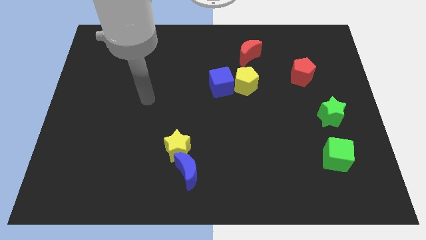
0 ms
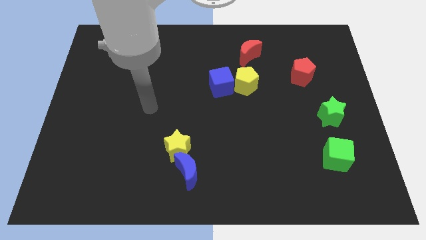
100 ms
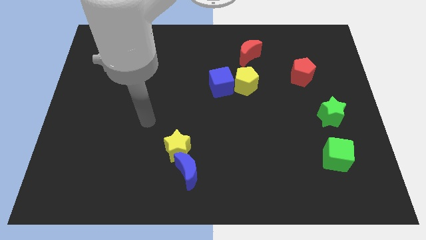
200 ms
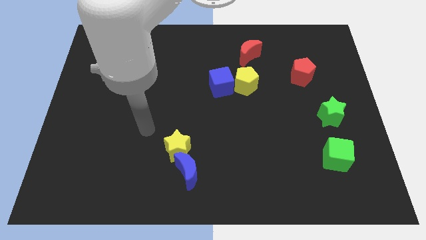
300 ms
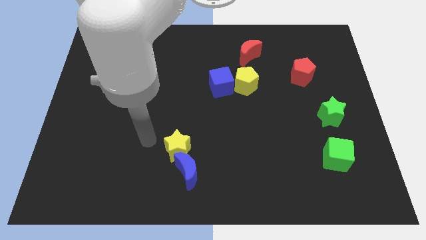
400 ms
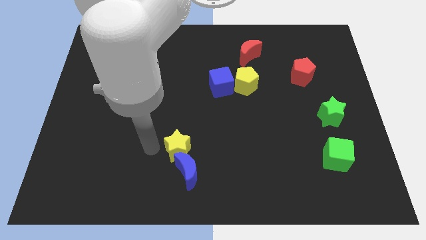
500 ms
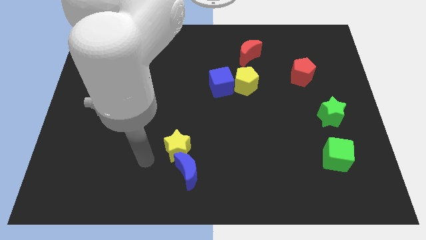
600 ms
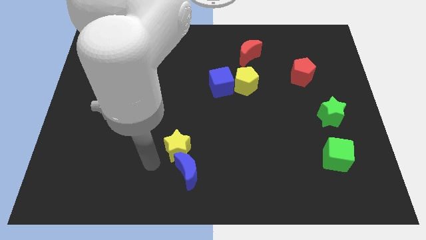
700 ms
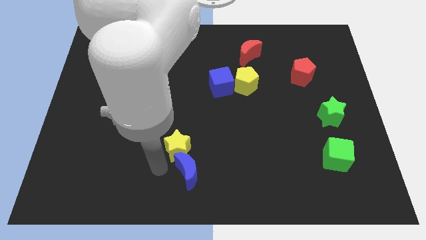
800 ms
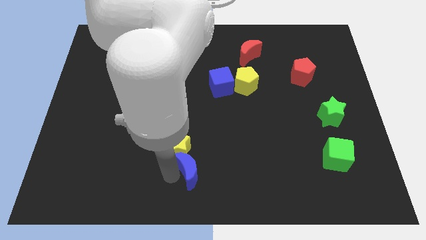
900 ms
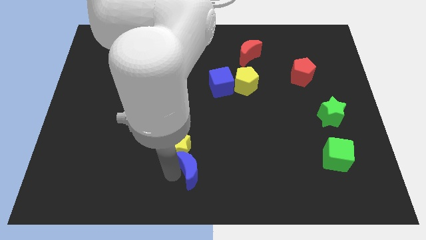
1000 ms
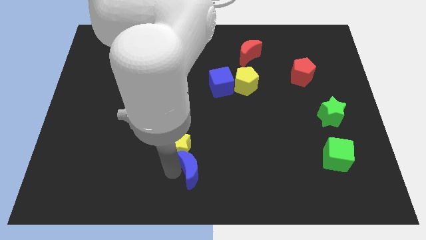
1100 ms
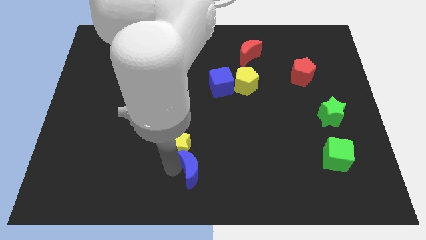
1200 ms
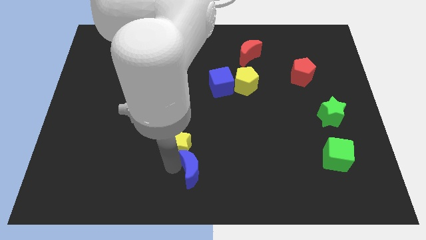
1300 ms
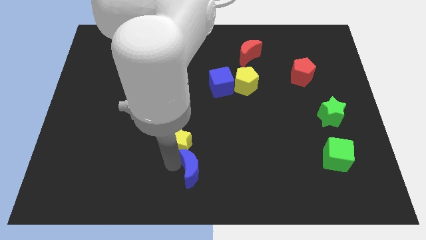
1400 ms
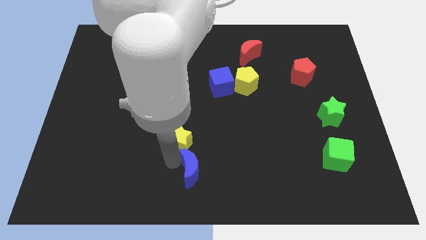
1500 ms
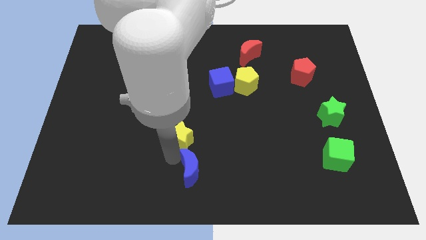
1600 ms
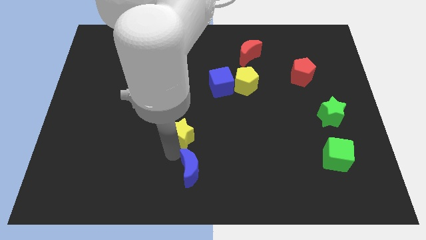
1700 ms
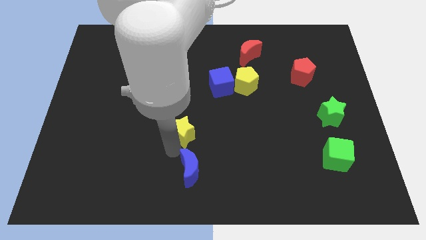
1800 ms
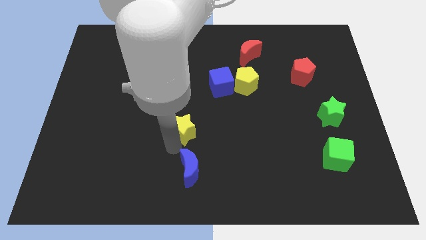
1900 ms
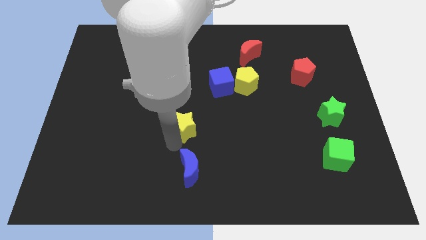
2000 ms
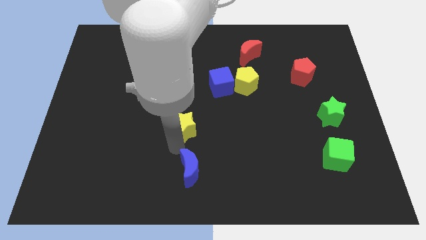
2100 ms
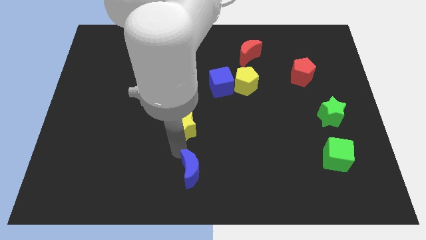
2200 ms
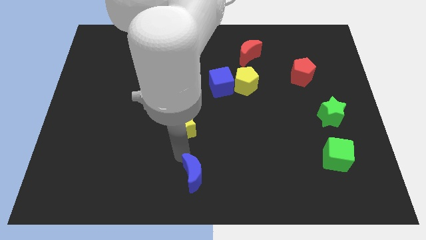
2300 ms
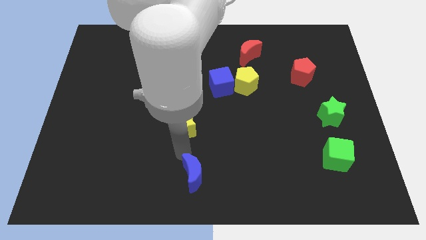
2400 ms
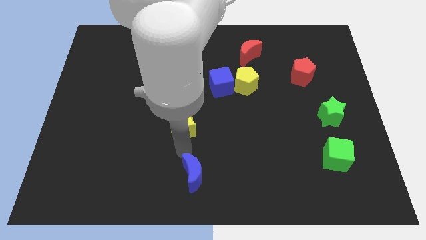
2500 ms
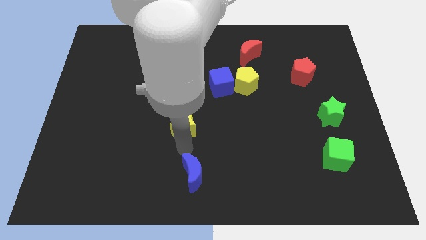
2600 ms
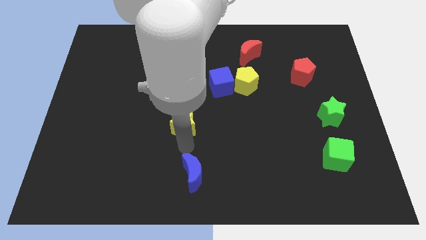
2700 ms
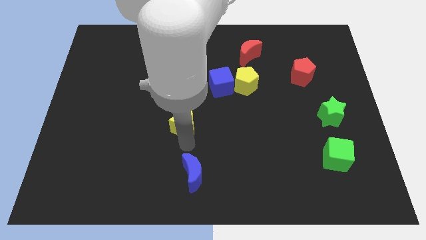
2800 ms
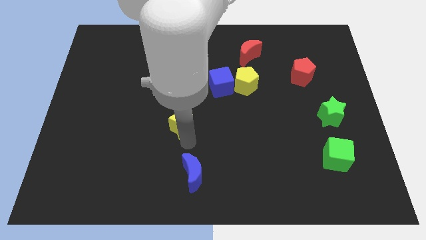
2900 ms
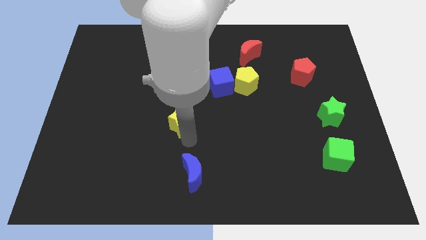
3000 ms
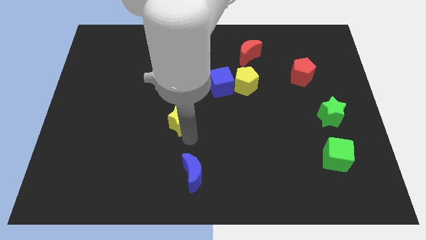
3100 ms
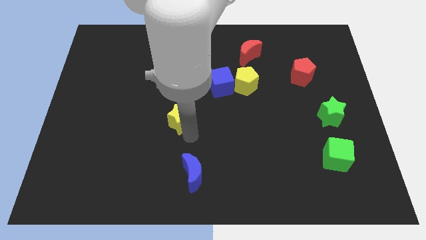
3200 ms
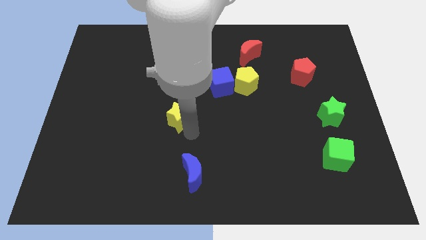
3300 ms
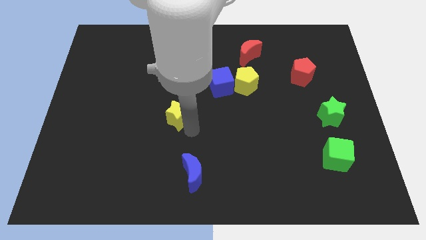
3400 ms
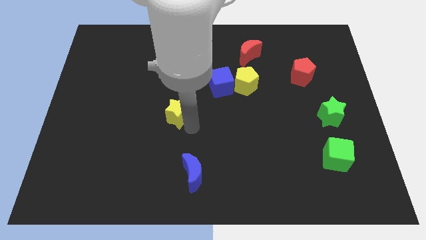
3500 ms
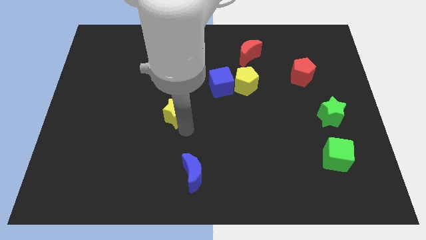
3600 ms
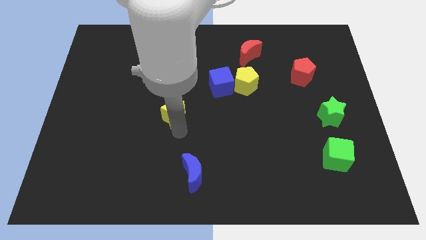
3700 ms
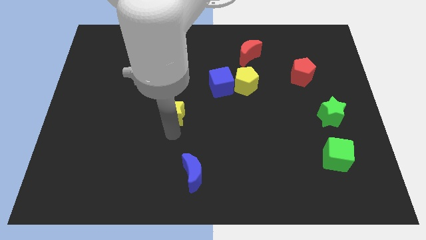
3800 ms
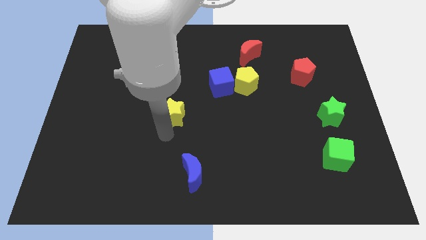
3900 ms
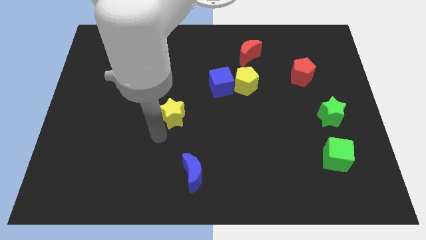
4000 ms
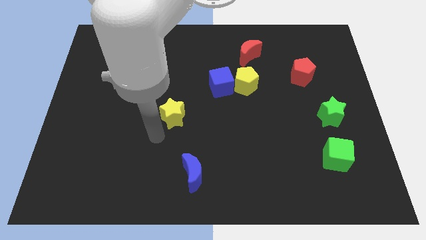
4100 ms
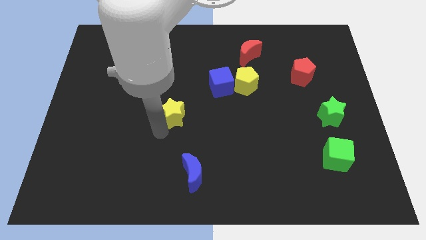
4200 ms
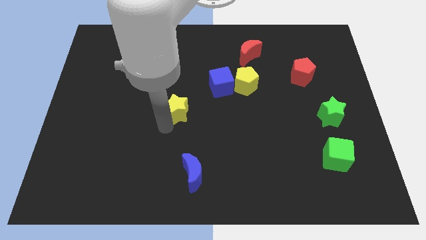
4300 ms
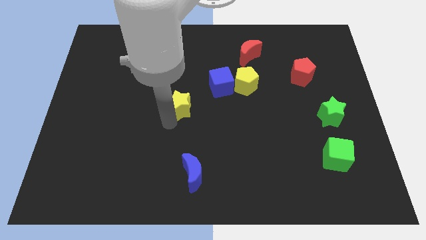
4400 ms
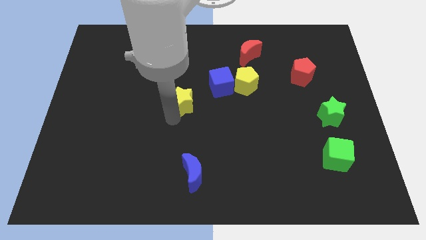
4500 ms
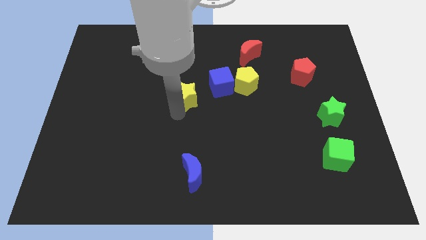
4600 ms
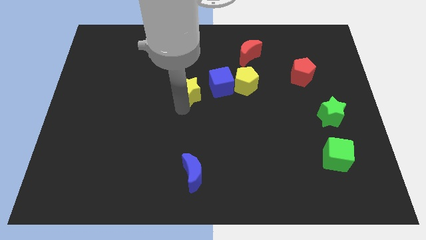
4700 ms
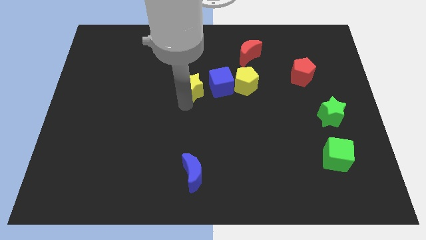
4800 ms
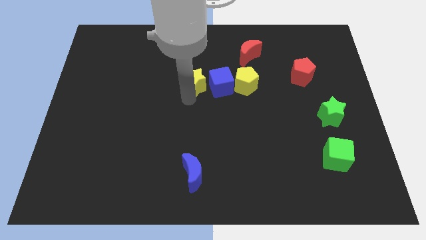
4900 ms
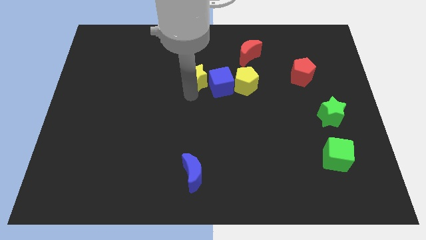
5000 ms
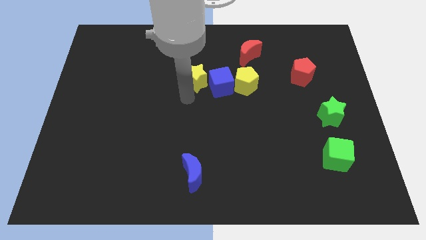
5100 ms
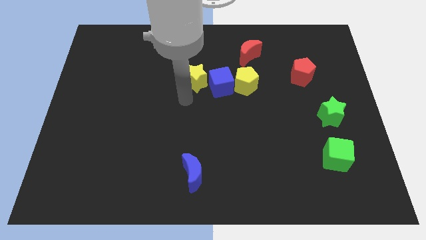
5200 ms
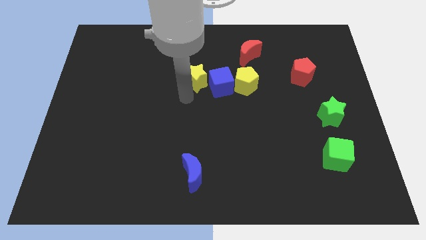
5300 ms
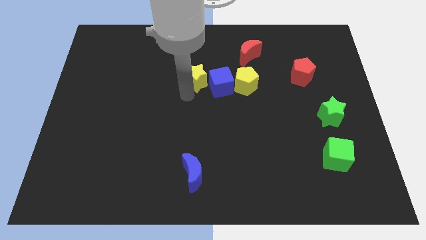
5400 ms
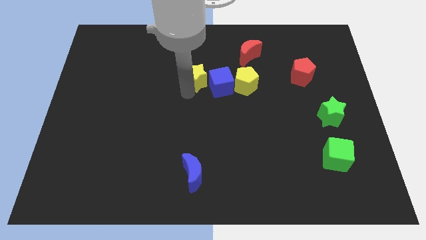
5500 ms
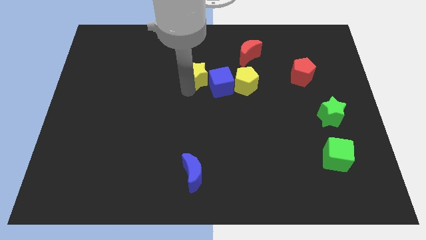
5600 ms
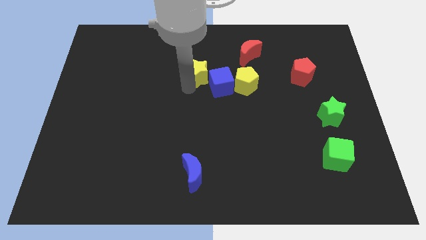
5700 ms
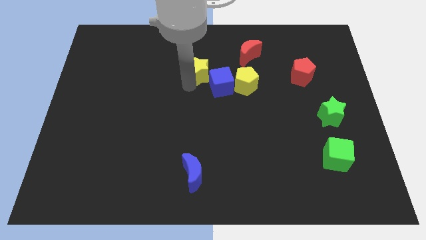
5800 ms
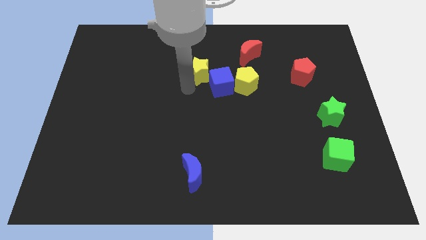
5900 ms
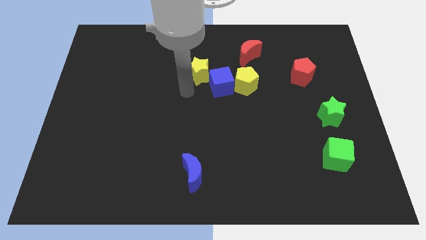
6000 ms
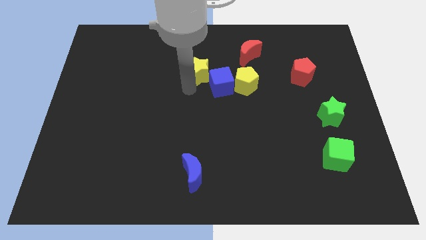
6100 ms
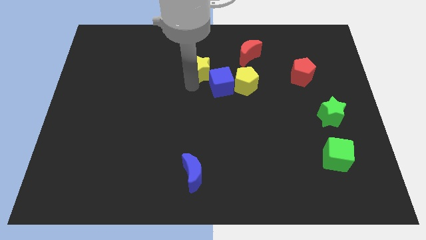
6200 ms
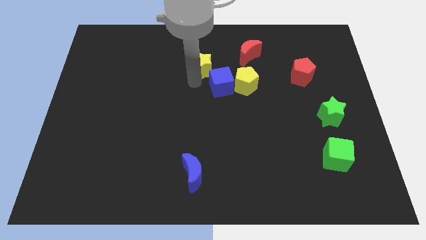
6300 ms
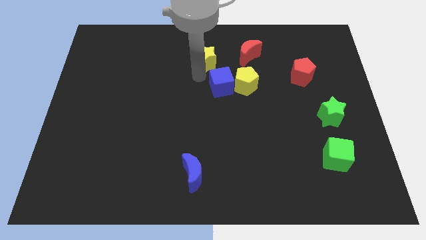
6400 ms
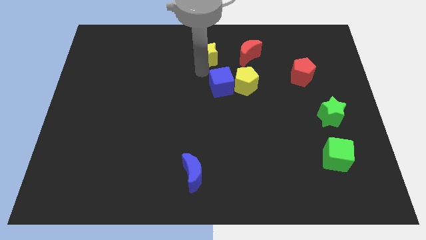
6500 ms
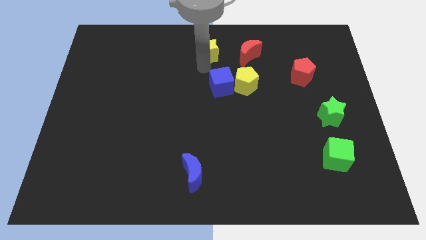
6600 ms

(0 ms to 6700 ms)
put the yellow star to the top side

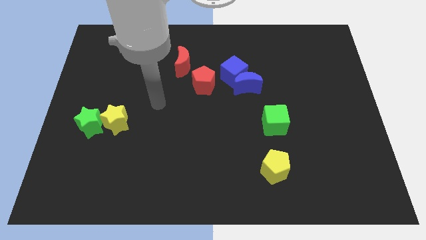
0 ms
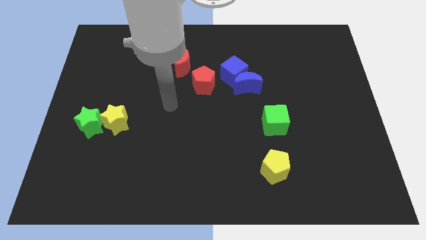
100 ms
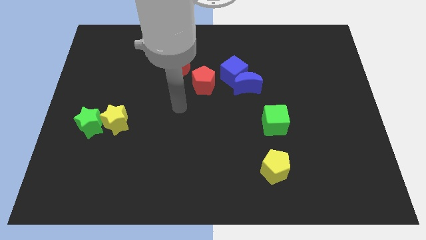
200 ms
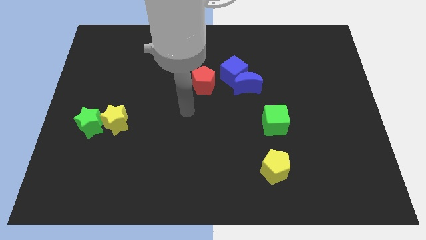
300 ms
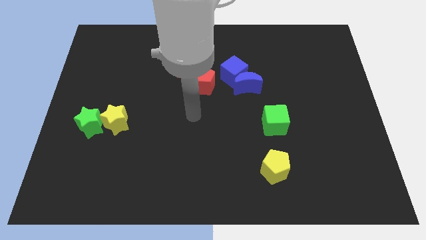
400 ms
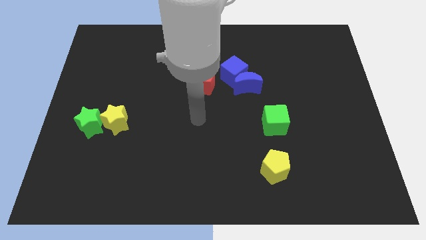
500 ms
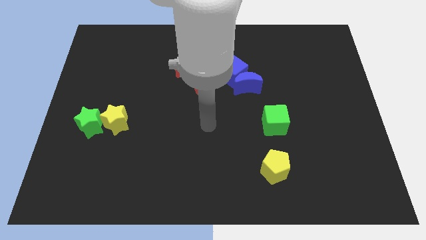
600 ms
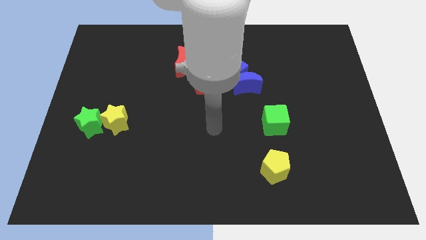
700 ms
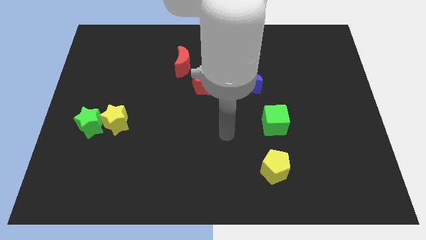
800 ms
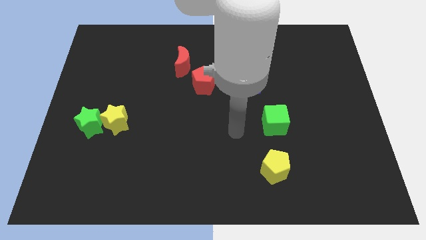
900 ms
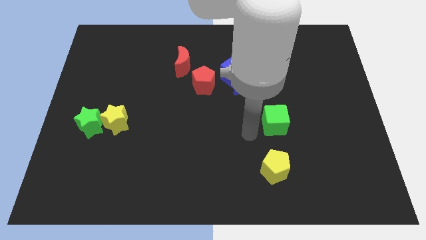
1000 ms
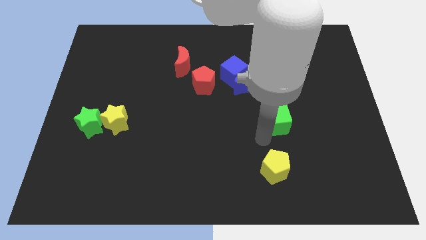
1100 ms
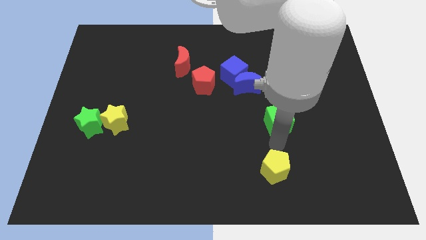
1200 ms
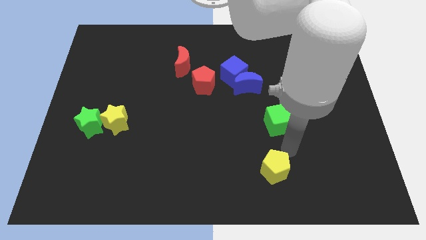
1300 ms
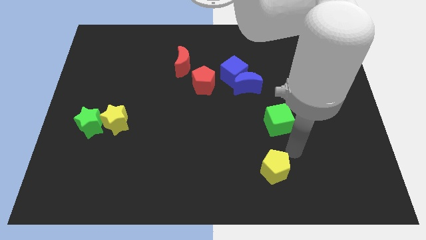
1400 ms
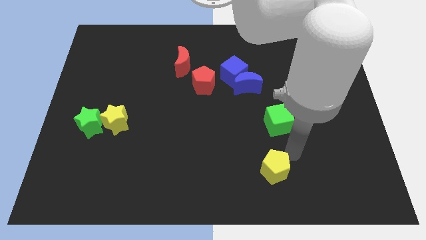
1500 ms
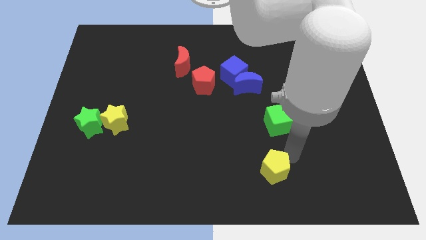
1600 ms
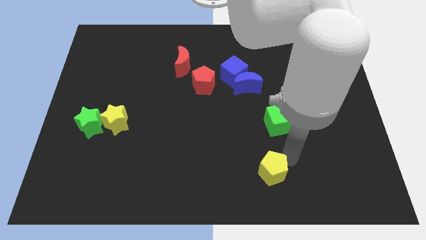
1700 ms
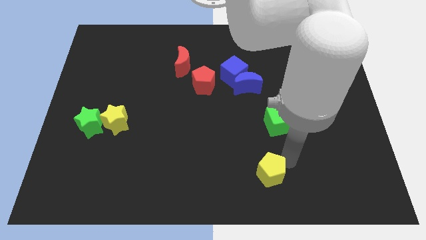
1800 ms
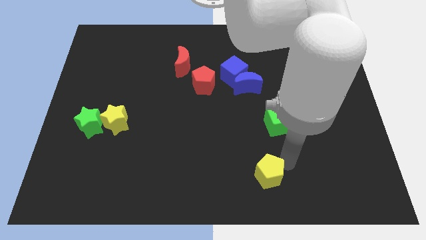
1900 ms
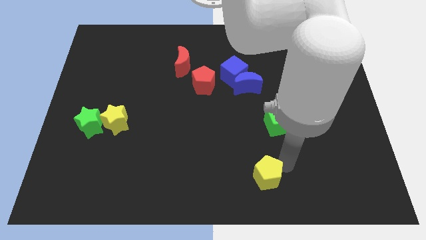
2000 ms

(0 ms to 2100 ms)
move the yellow pentagon to the bottom side
